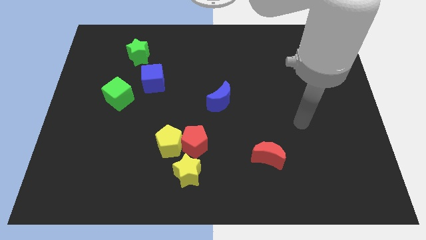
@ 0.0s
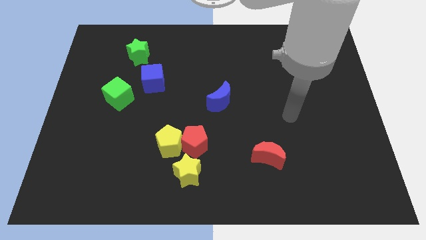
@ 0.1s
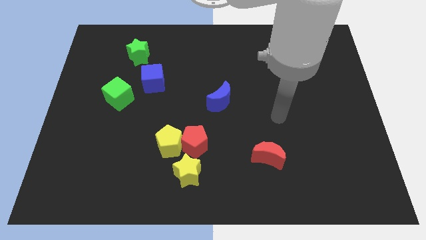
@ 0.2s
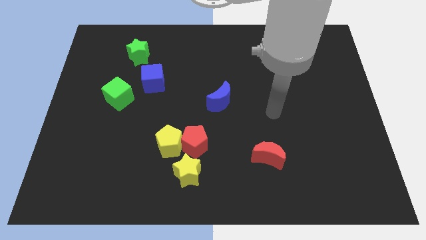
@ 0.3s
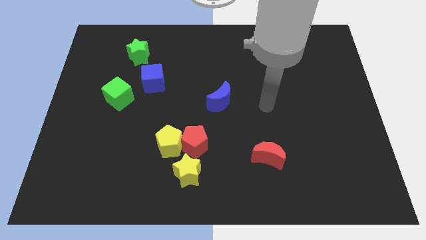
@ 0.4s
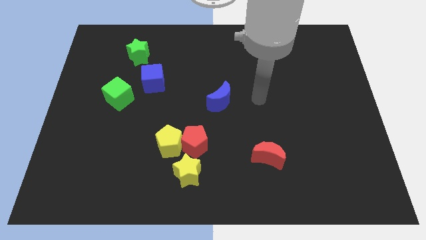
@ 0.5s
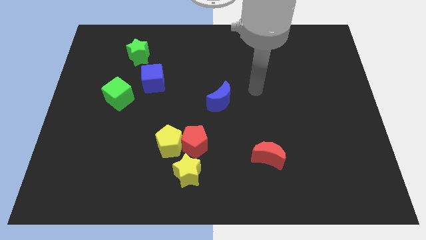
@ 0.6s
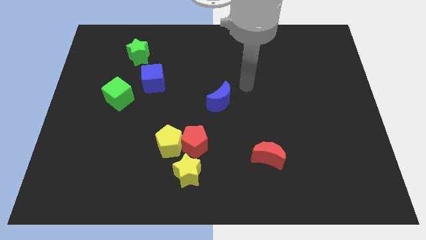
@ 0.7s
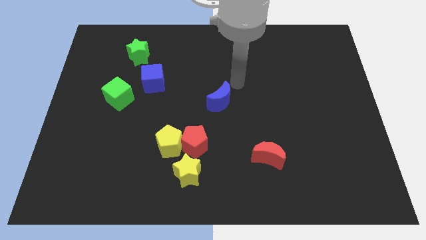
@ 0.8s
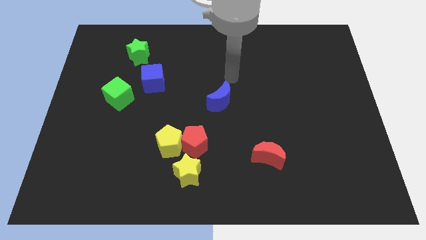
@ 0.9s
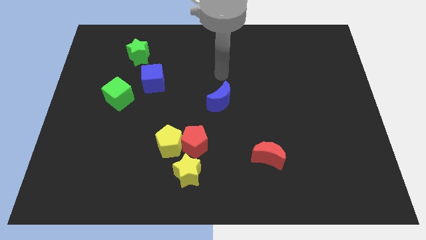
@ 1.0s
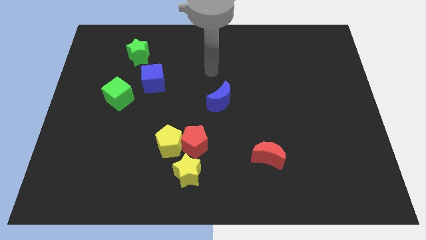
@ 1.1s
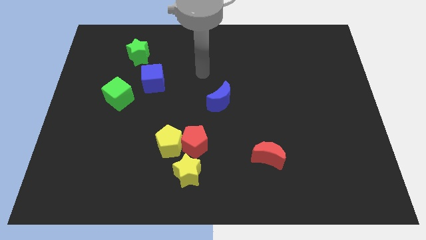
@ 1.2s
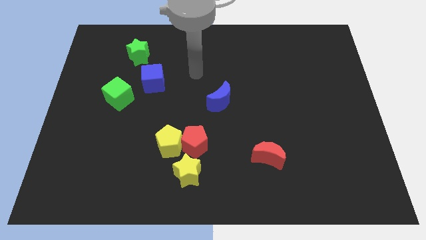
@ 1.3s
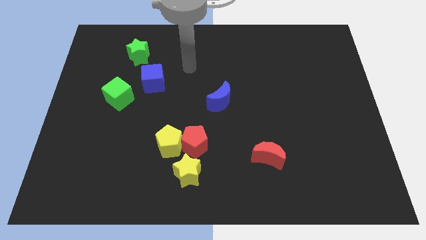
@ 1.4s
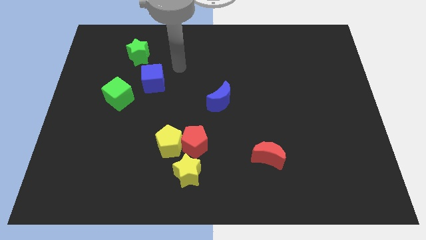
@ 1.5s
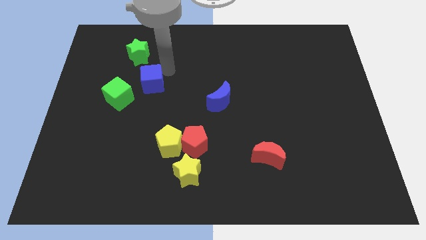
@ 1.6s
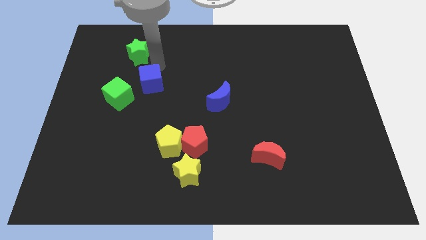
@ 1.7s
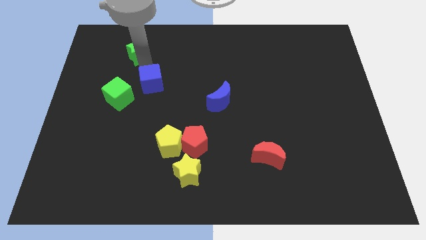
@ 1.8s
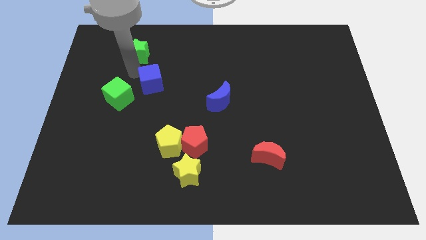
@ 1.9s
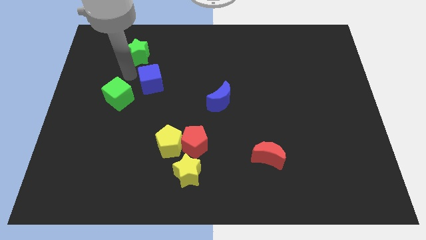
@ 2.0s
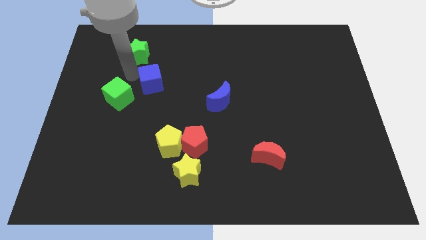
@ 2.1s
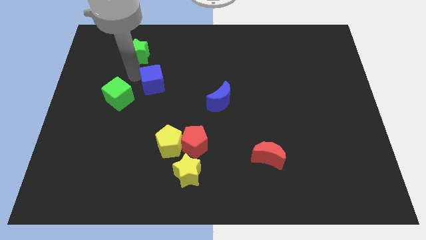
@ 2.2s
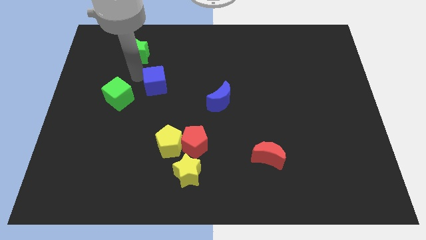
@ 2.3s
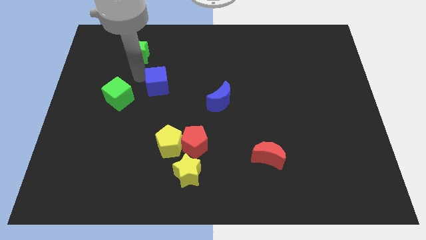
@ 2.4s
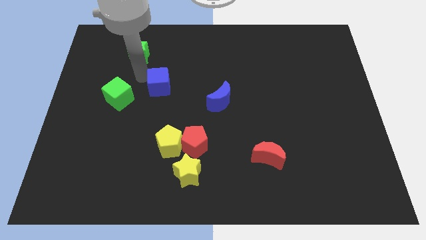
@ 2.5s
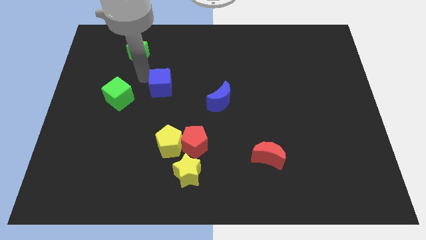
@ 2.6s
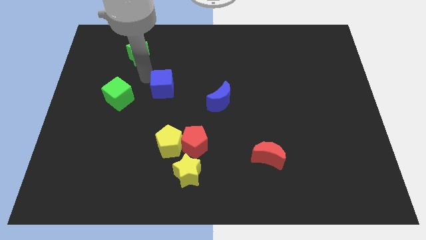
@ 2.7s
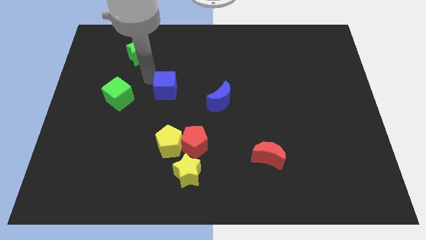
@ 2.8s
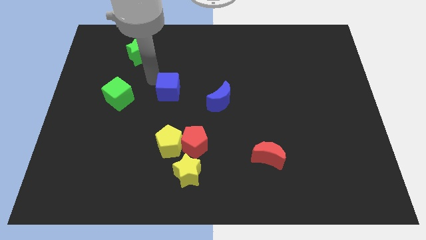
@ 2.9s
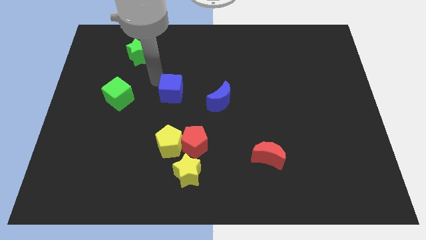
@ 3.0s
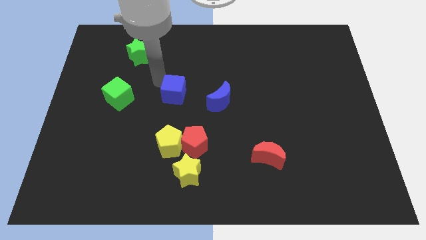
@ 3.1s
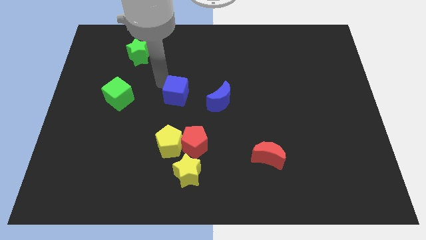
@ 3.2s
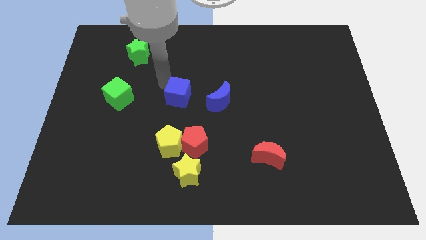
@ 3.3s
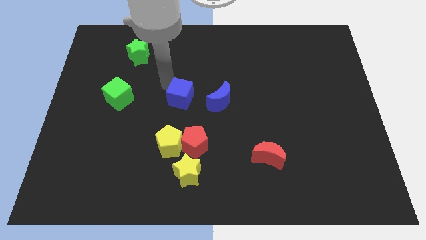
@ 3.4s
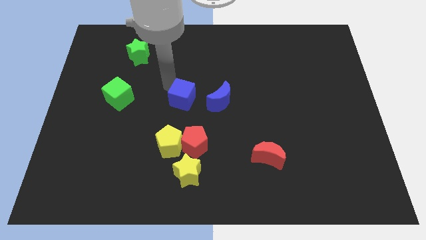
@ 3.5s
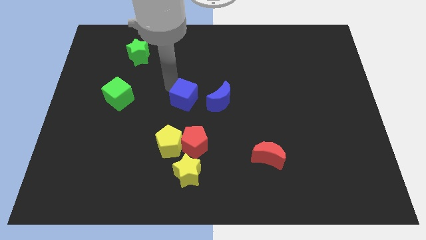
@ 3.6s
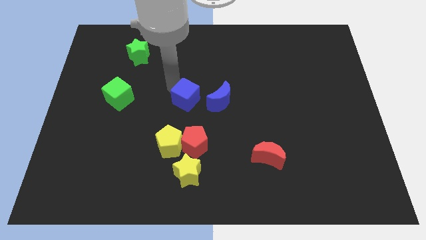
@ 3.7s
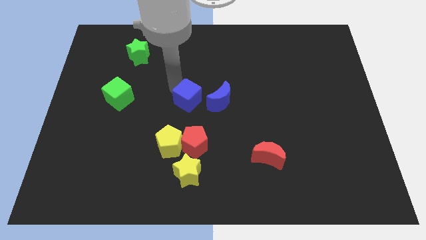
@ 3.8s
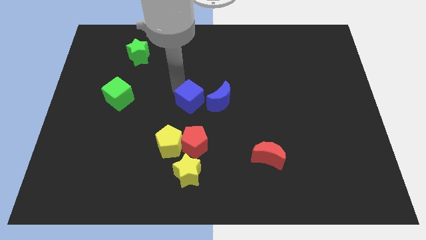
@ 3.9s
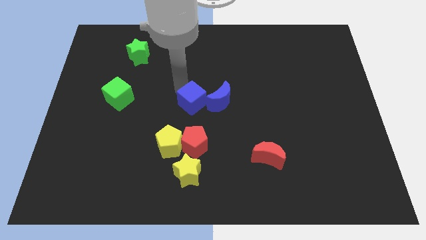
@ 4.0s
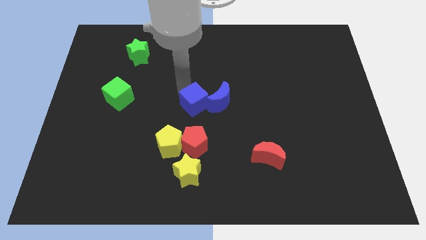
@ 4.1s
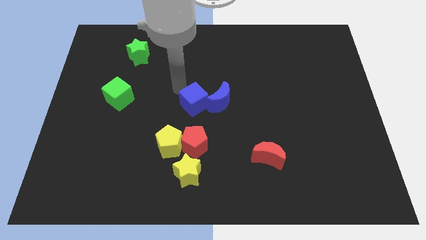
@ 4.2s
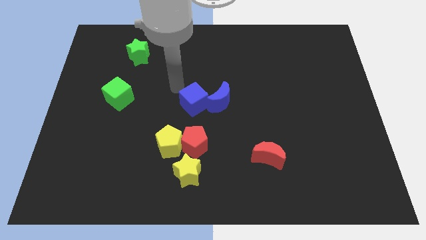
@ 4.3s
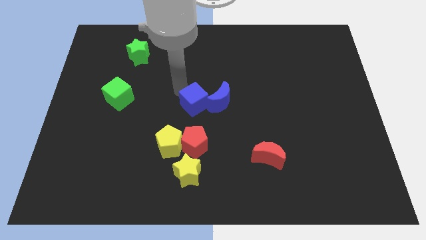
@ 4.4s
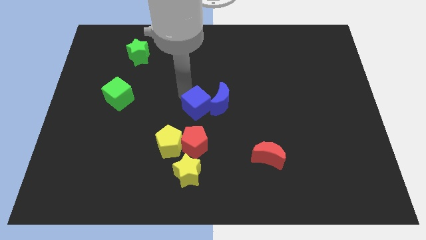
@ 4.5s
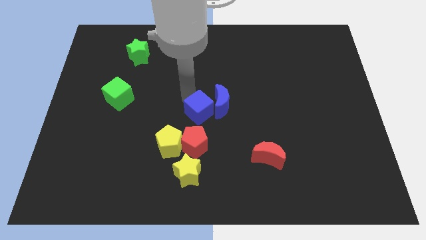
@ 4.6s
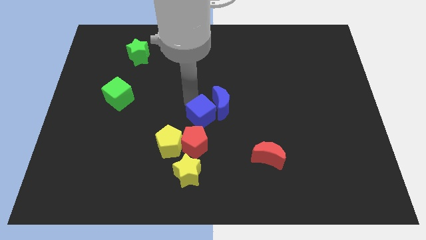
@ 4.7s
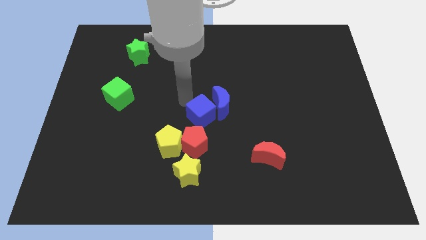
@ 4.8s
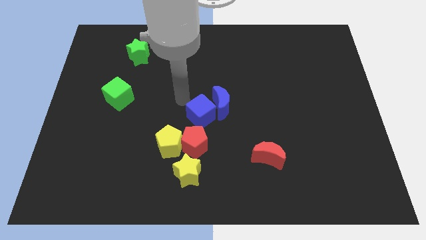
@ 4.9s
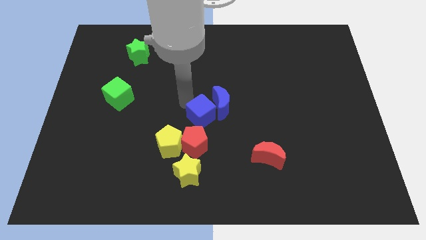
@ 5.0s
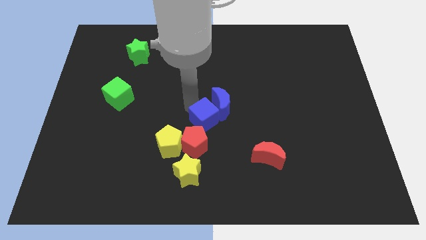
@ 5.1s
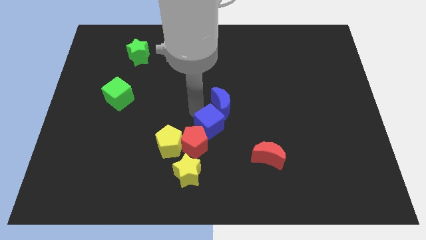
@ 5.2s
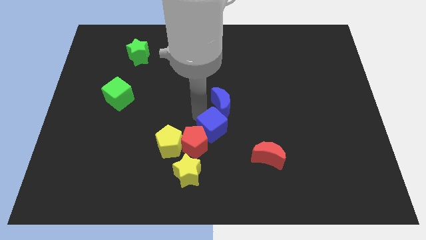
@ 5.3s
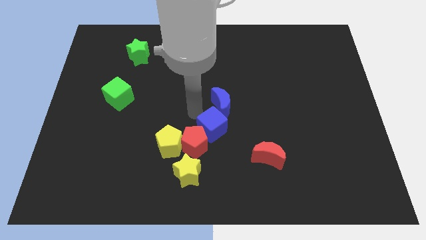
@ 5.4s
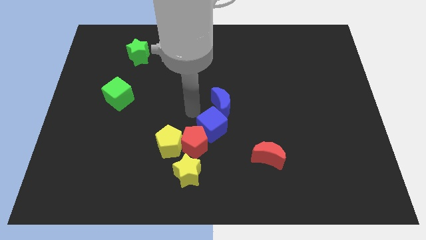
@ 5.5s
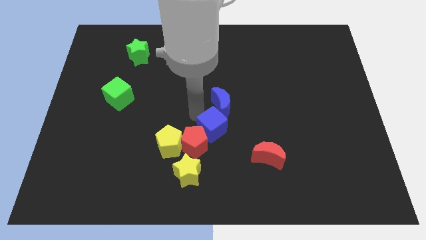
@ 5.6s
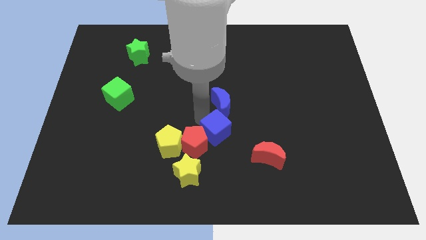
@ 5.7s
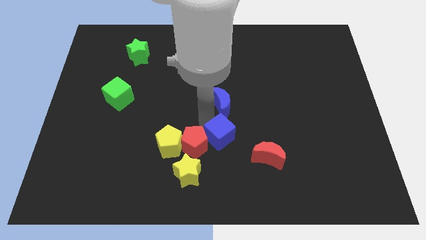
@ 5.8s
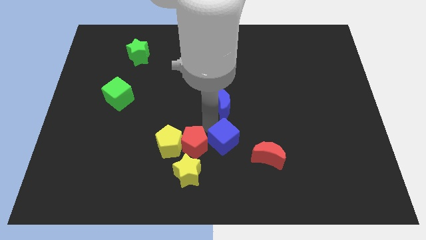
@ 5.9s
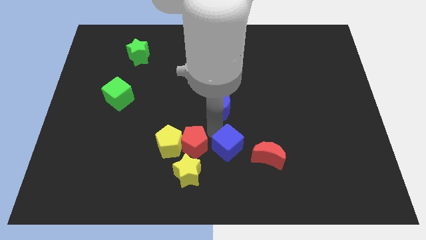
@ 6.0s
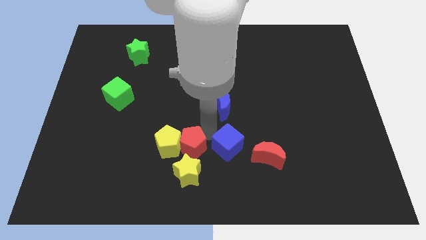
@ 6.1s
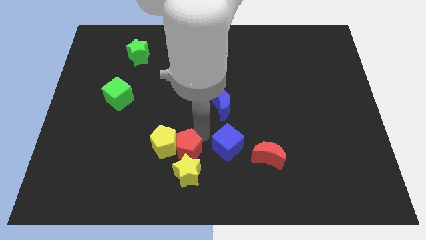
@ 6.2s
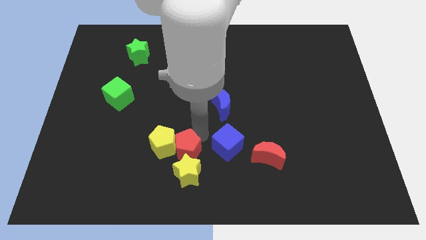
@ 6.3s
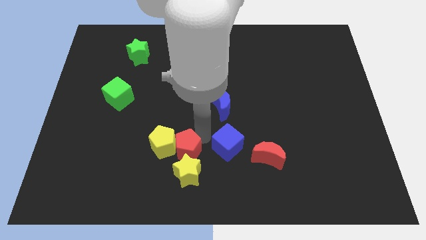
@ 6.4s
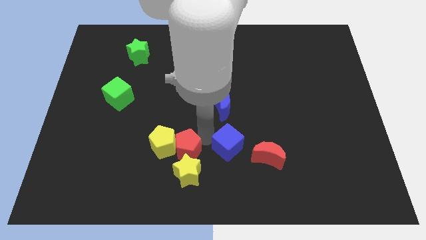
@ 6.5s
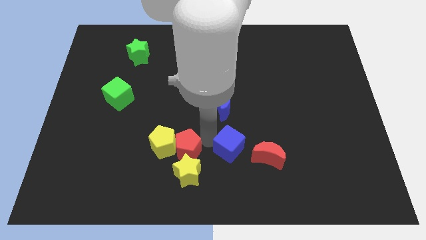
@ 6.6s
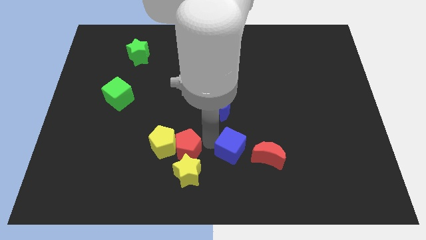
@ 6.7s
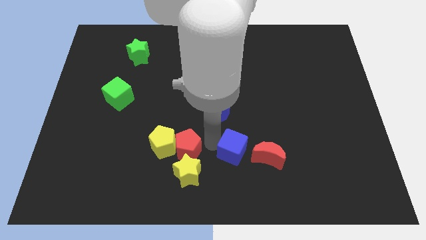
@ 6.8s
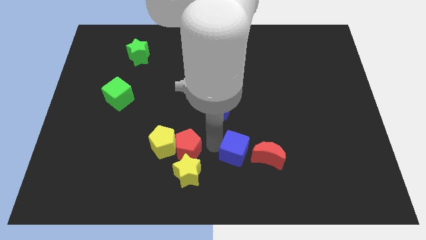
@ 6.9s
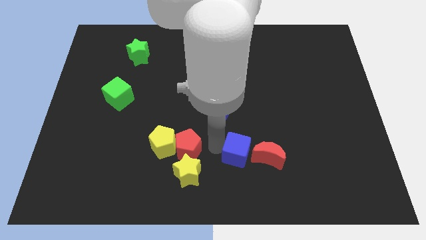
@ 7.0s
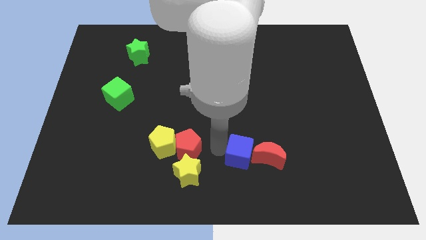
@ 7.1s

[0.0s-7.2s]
move the blue cube to the red moon
